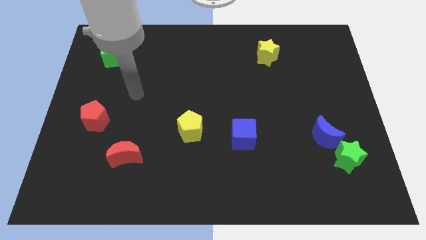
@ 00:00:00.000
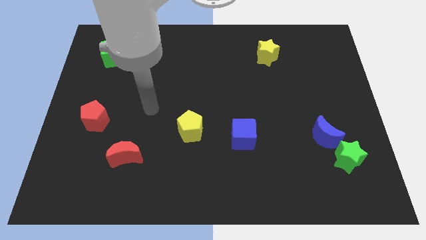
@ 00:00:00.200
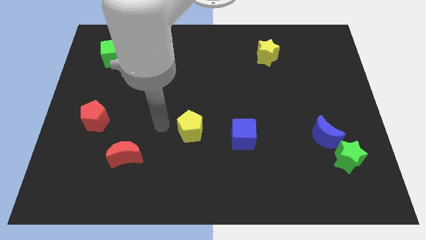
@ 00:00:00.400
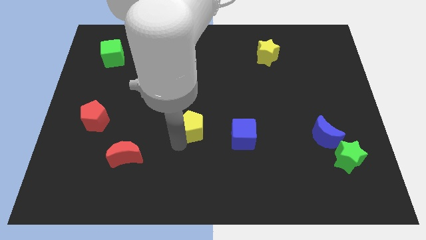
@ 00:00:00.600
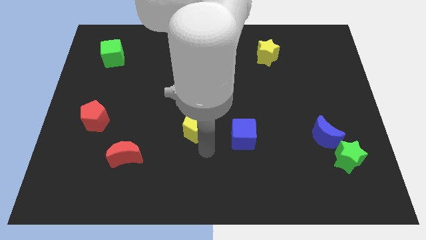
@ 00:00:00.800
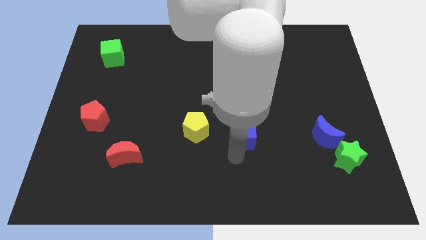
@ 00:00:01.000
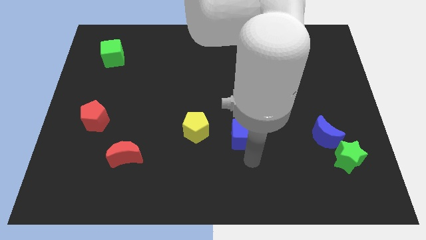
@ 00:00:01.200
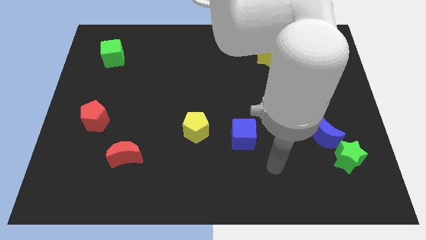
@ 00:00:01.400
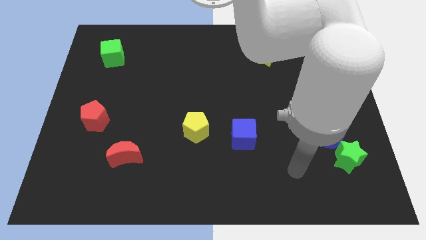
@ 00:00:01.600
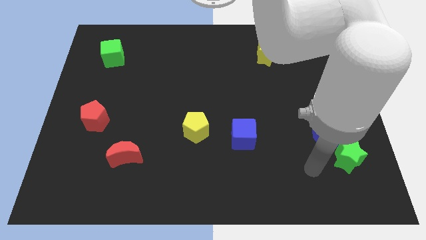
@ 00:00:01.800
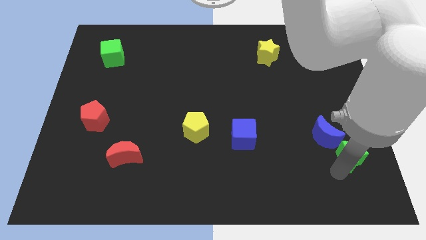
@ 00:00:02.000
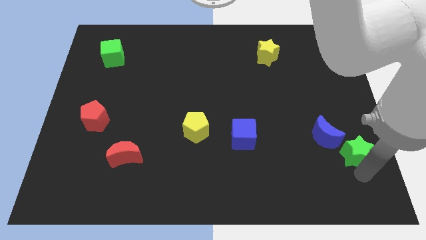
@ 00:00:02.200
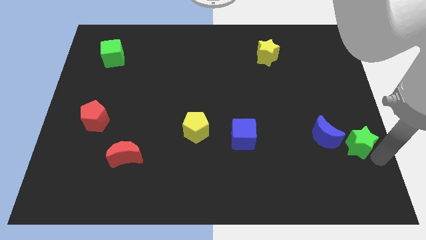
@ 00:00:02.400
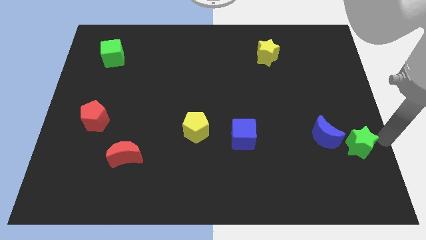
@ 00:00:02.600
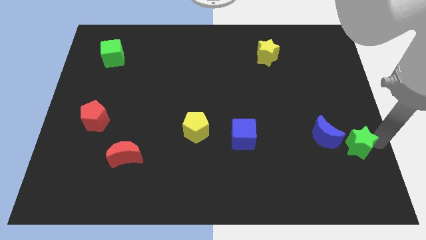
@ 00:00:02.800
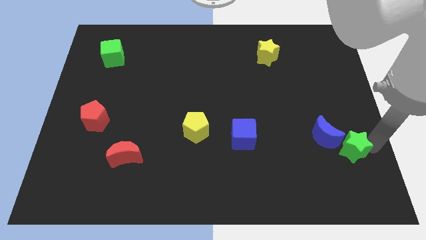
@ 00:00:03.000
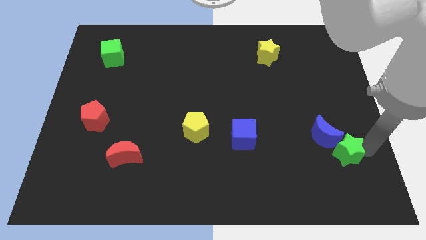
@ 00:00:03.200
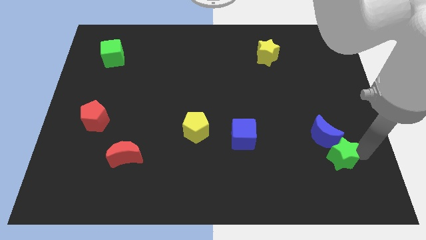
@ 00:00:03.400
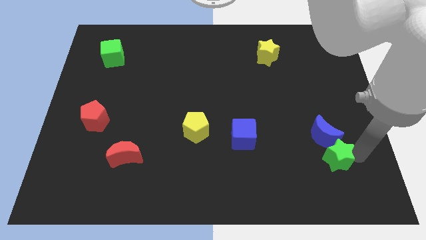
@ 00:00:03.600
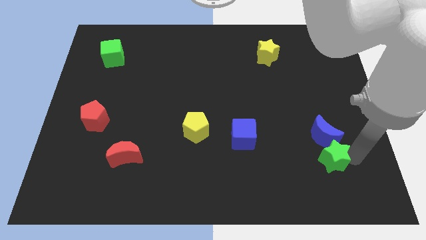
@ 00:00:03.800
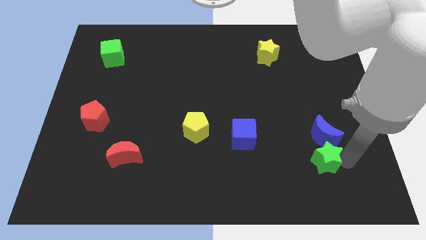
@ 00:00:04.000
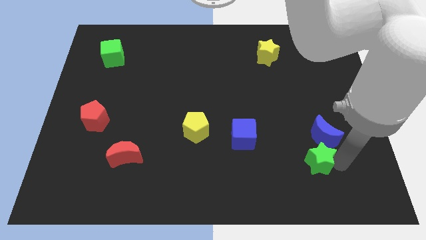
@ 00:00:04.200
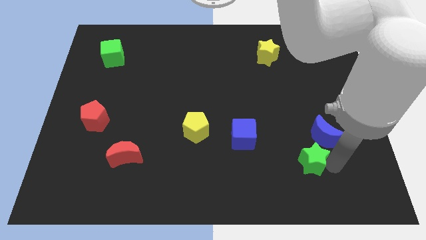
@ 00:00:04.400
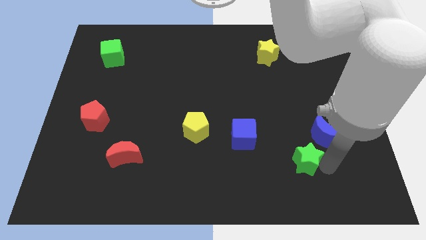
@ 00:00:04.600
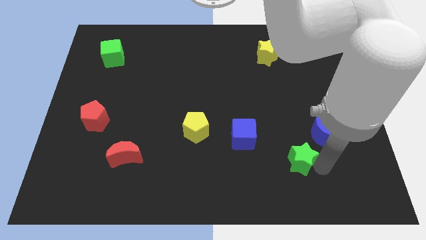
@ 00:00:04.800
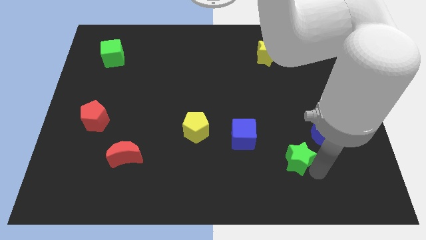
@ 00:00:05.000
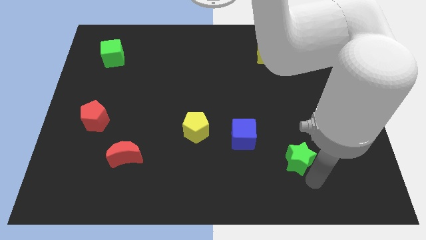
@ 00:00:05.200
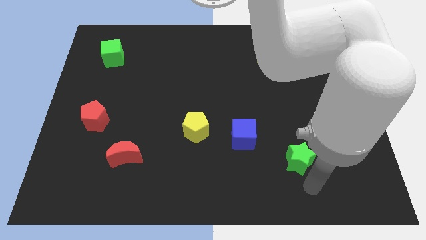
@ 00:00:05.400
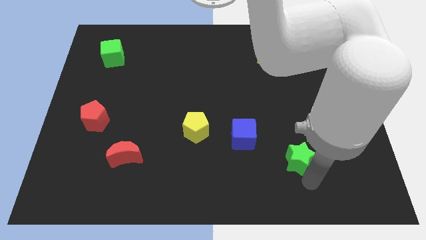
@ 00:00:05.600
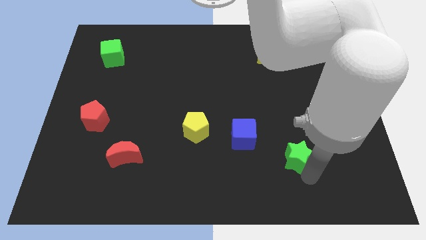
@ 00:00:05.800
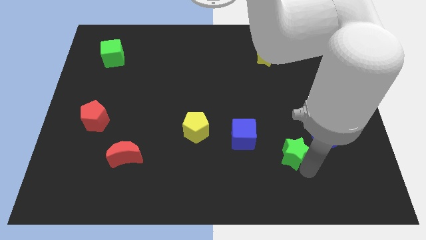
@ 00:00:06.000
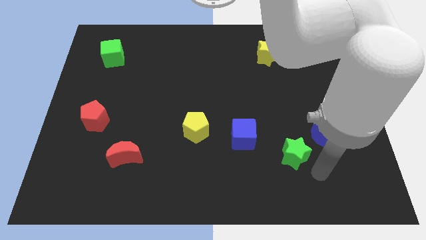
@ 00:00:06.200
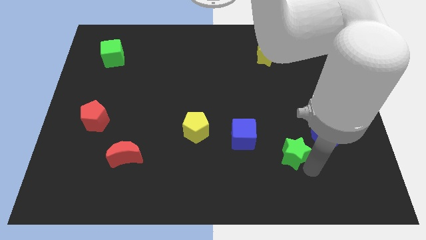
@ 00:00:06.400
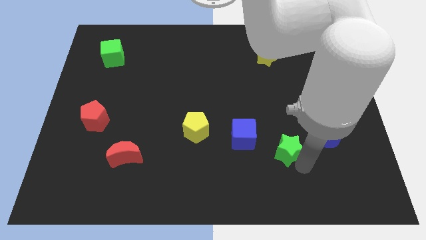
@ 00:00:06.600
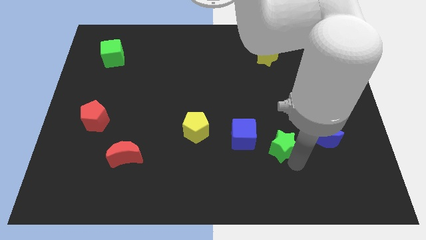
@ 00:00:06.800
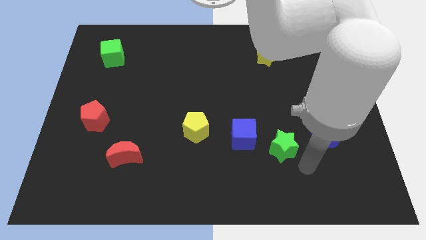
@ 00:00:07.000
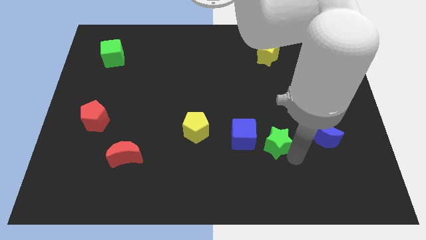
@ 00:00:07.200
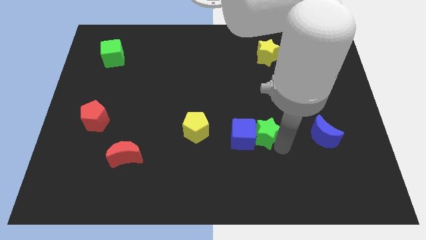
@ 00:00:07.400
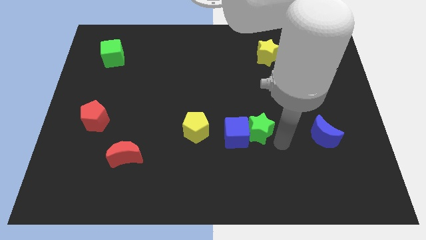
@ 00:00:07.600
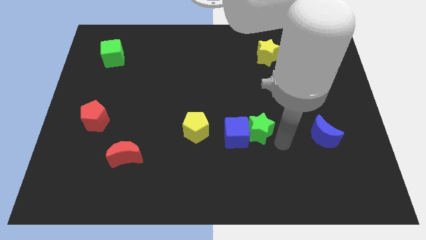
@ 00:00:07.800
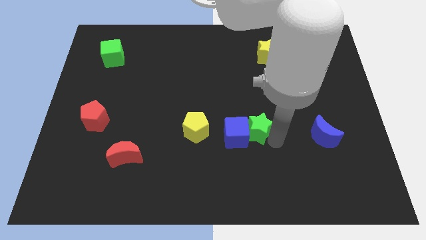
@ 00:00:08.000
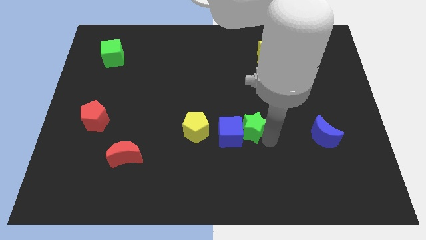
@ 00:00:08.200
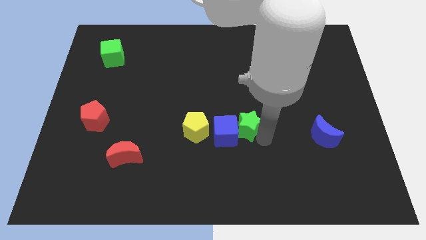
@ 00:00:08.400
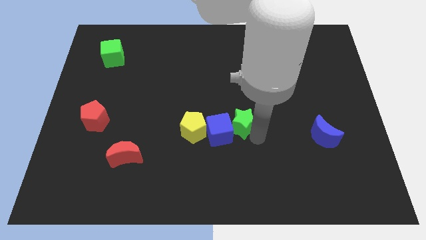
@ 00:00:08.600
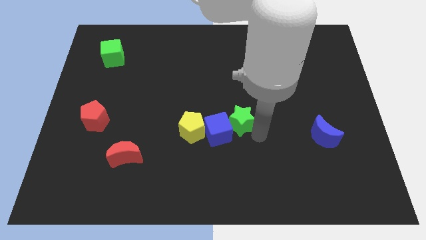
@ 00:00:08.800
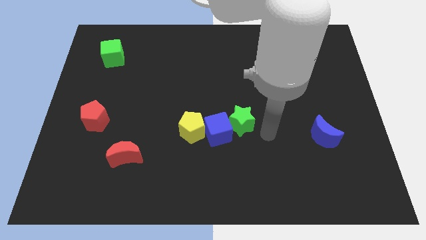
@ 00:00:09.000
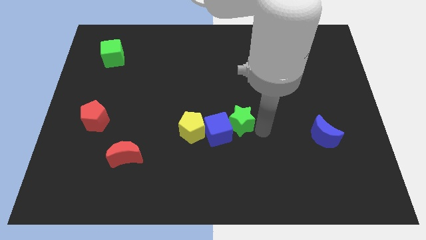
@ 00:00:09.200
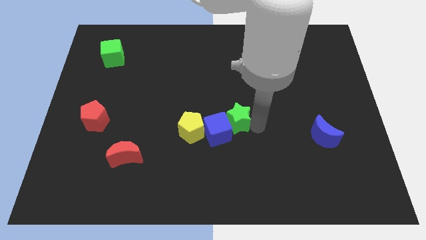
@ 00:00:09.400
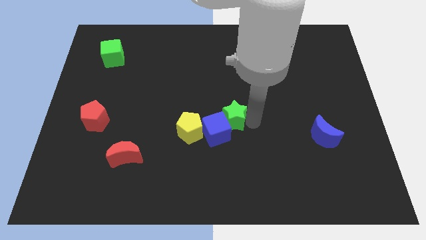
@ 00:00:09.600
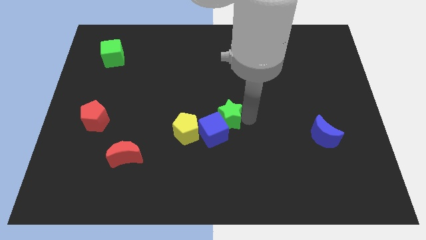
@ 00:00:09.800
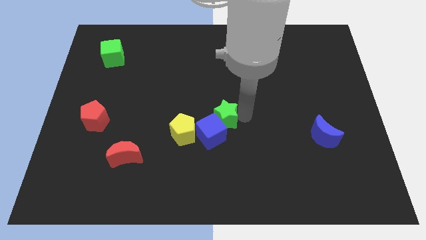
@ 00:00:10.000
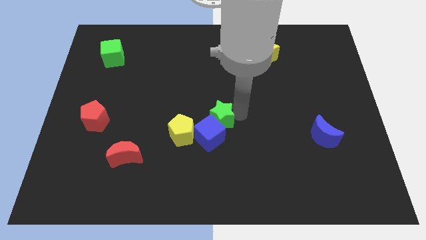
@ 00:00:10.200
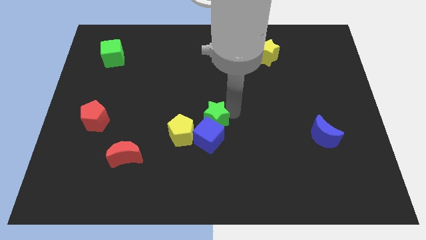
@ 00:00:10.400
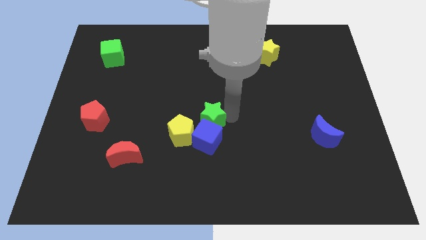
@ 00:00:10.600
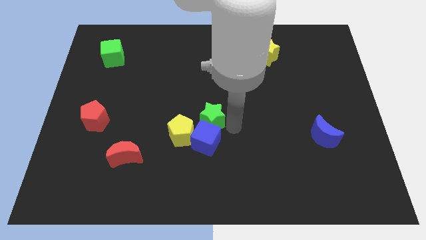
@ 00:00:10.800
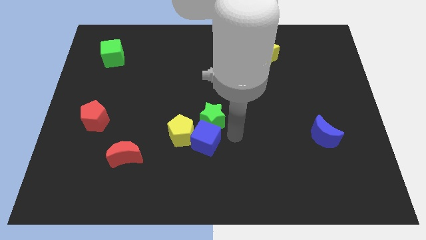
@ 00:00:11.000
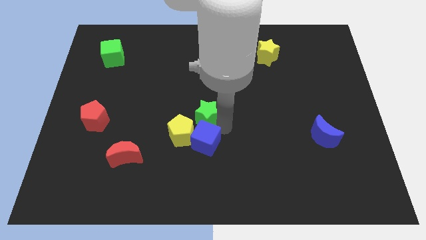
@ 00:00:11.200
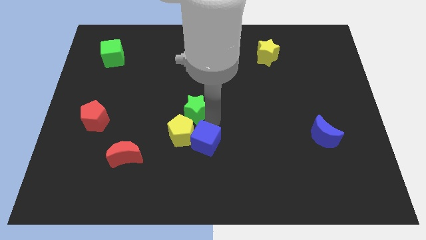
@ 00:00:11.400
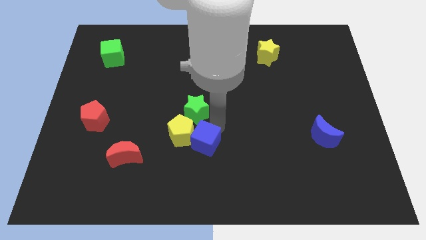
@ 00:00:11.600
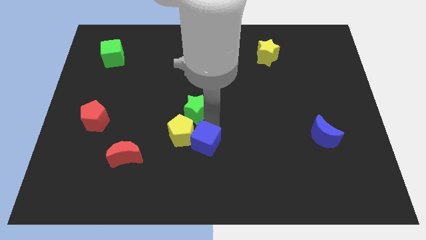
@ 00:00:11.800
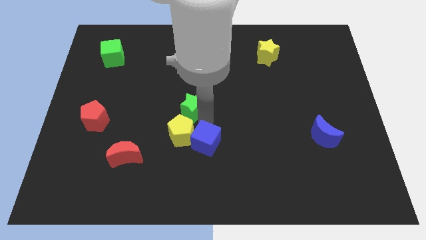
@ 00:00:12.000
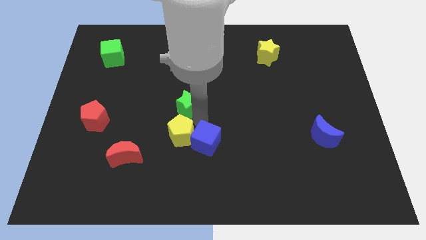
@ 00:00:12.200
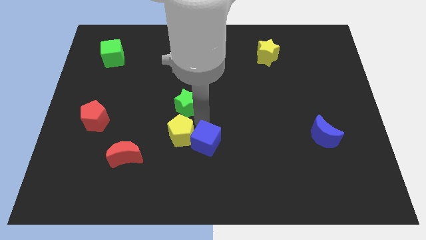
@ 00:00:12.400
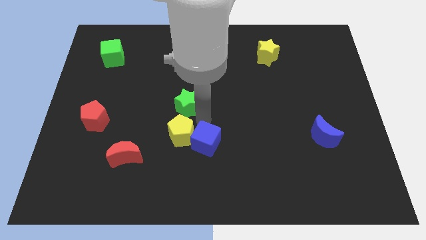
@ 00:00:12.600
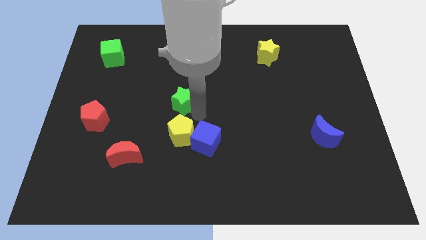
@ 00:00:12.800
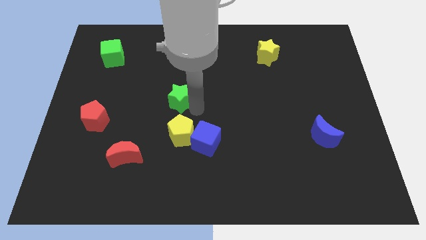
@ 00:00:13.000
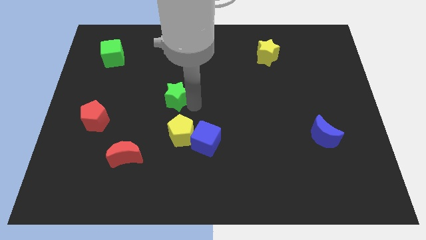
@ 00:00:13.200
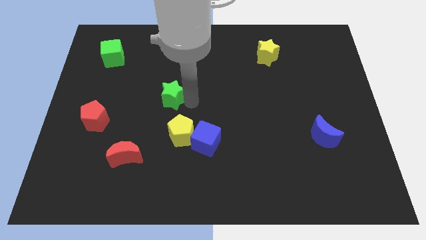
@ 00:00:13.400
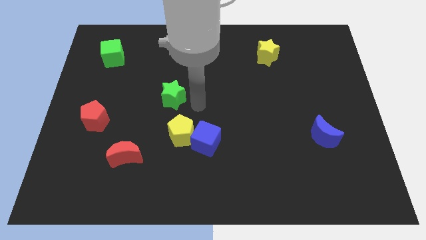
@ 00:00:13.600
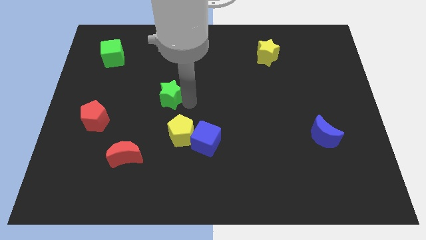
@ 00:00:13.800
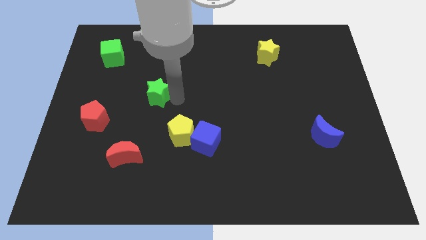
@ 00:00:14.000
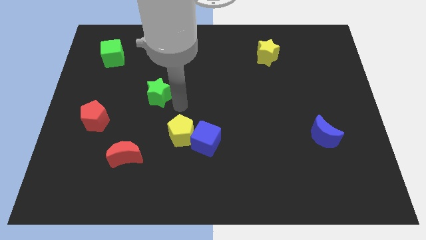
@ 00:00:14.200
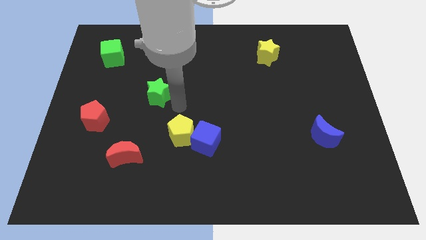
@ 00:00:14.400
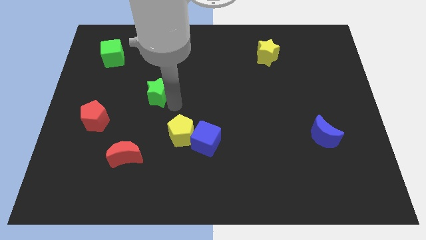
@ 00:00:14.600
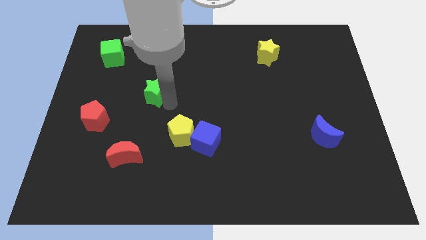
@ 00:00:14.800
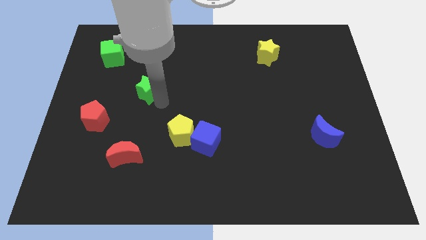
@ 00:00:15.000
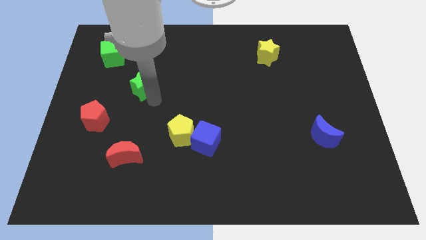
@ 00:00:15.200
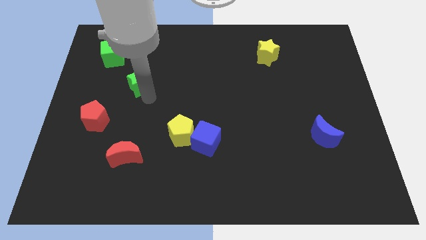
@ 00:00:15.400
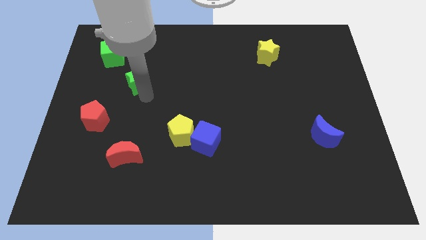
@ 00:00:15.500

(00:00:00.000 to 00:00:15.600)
push the green star to the bottom right side of the green cube
